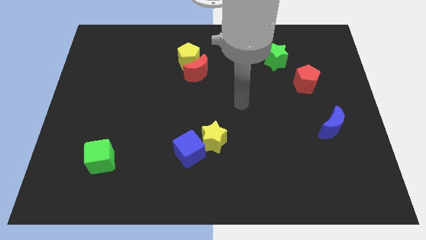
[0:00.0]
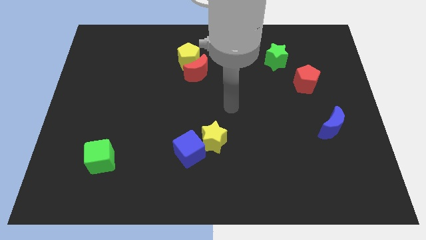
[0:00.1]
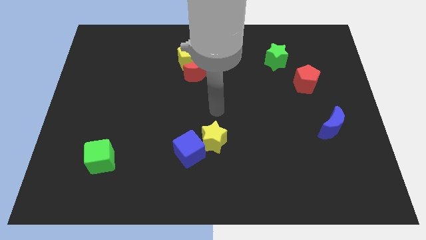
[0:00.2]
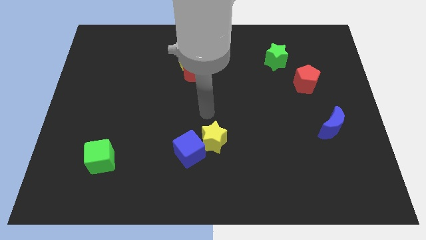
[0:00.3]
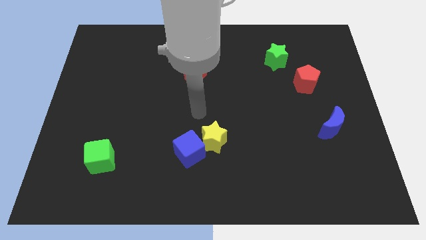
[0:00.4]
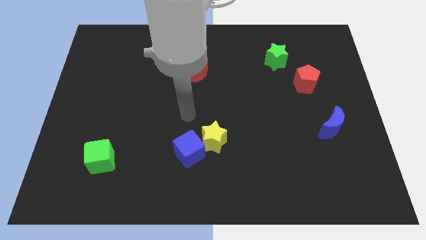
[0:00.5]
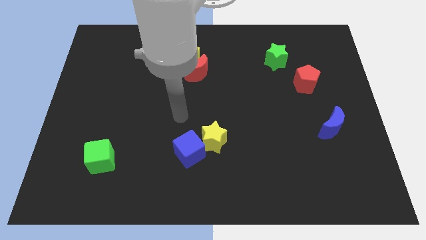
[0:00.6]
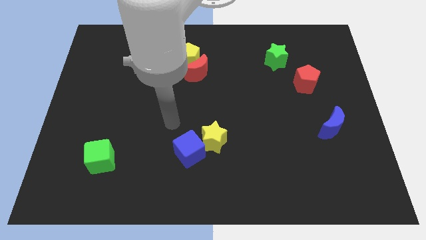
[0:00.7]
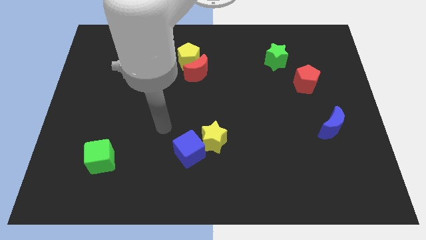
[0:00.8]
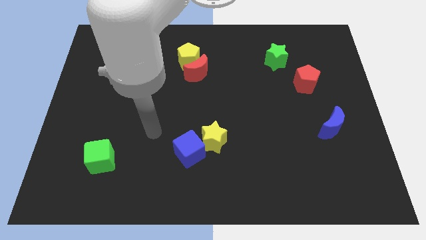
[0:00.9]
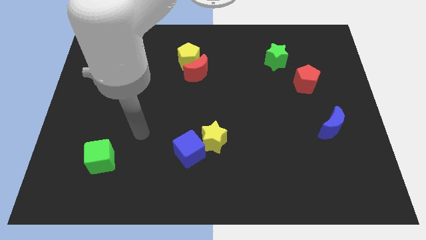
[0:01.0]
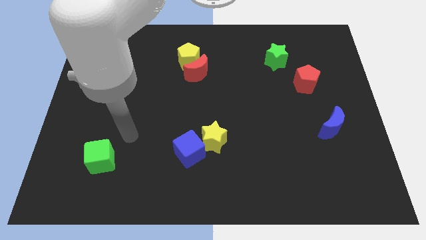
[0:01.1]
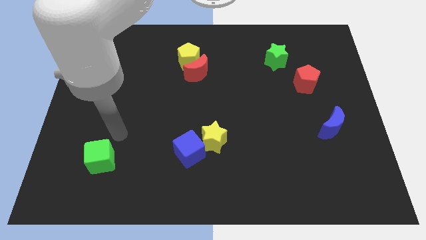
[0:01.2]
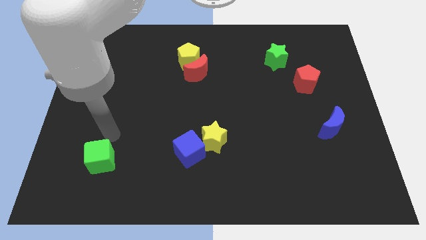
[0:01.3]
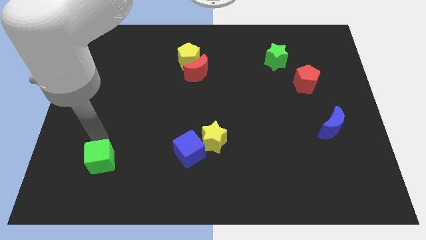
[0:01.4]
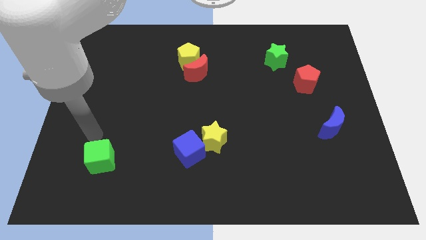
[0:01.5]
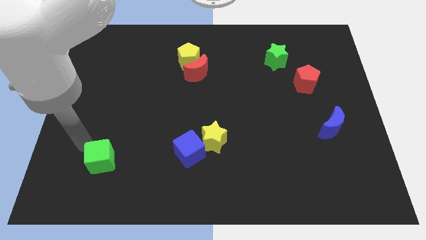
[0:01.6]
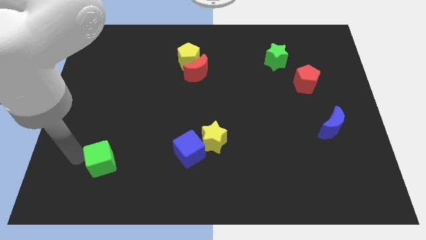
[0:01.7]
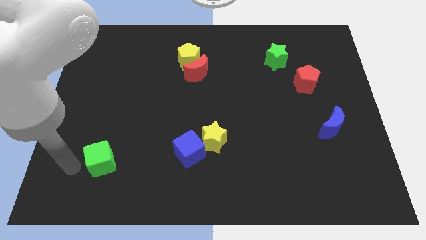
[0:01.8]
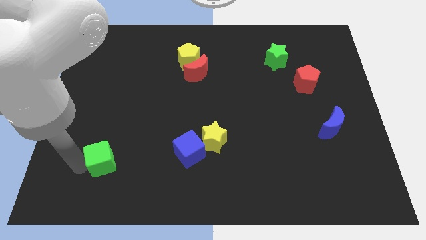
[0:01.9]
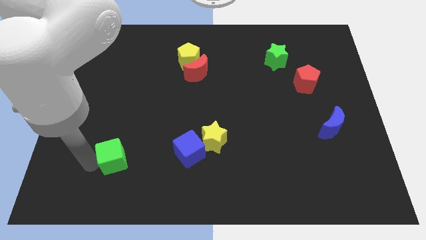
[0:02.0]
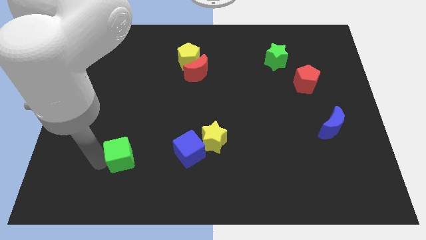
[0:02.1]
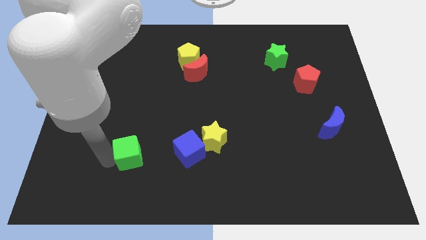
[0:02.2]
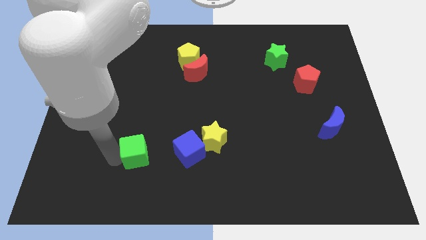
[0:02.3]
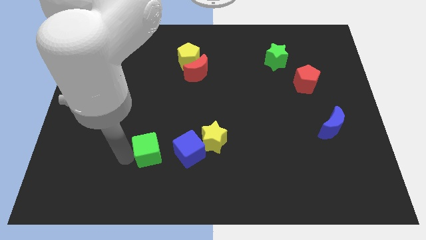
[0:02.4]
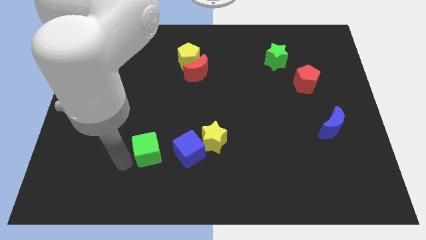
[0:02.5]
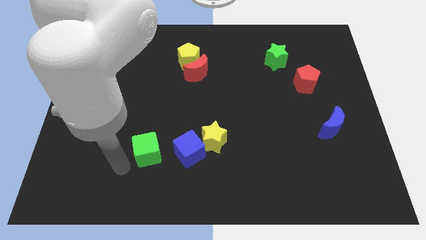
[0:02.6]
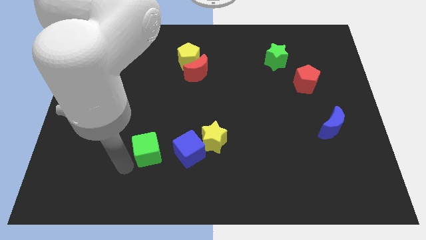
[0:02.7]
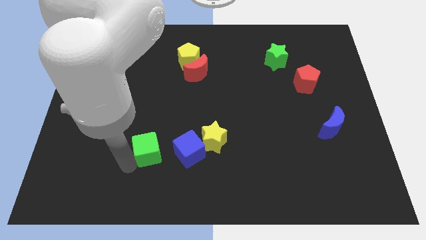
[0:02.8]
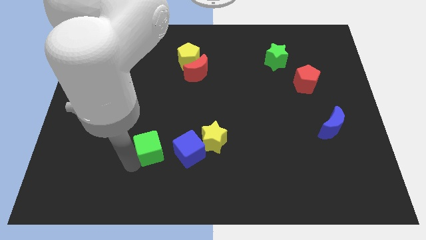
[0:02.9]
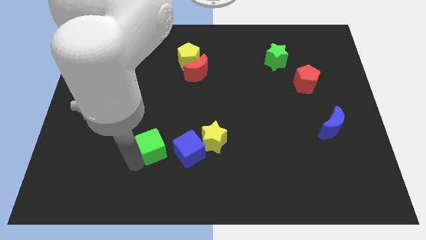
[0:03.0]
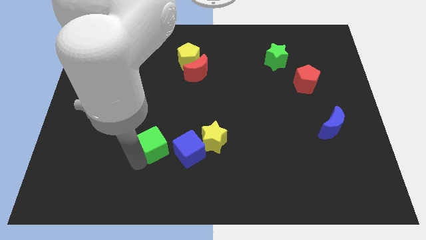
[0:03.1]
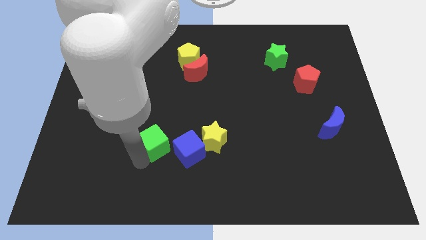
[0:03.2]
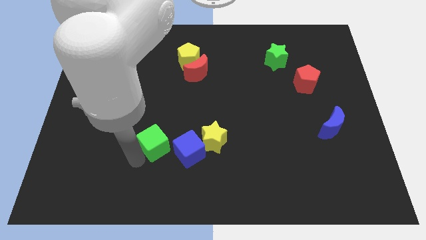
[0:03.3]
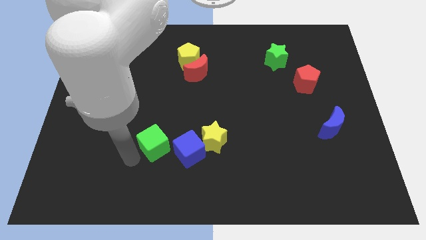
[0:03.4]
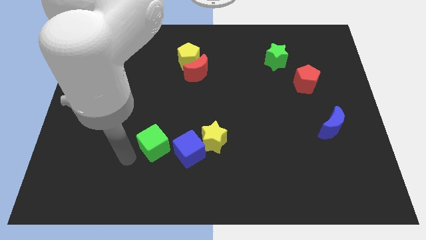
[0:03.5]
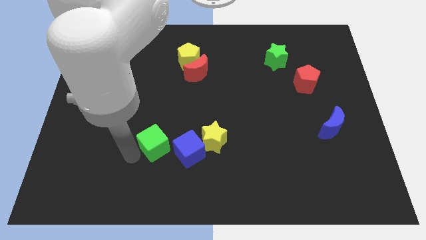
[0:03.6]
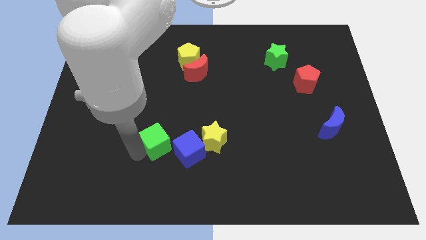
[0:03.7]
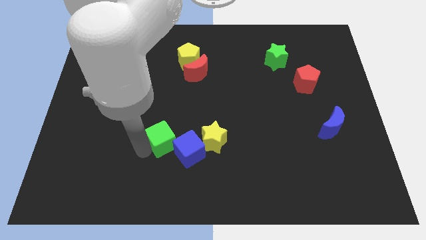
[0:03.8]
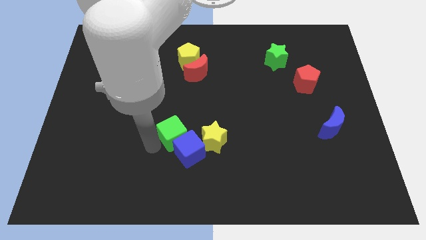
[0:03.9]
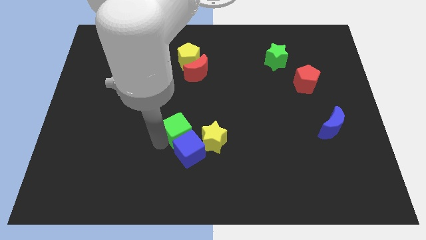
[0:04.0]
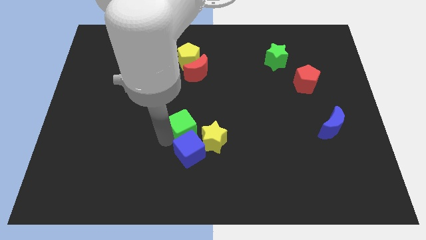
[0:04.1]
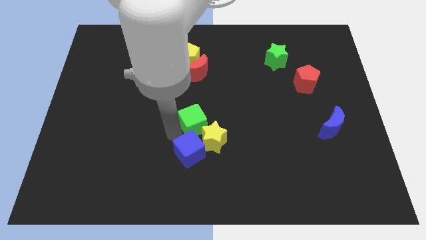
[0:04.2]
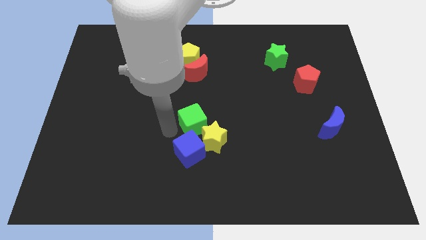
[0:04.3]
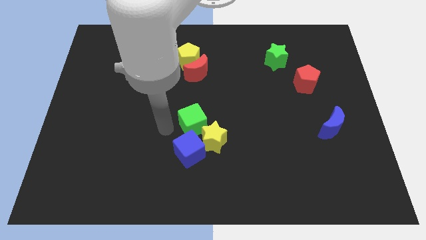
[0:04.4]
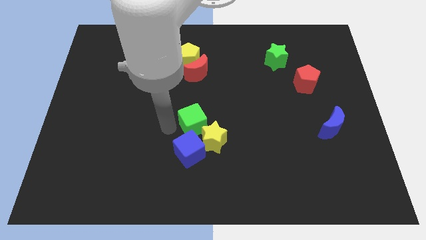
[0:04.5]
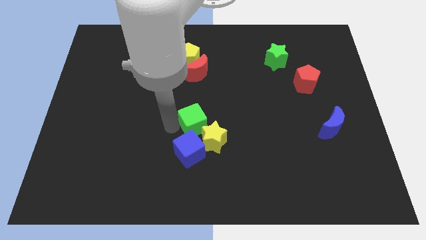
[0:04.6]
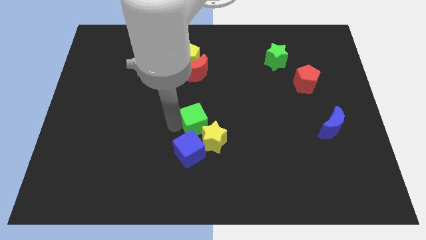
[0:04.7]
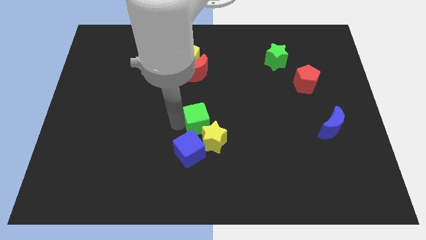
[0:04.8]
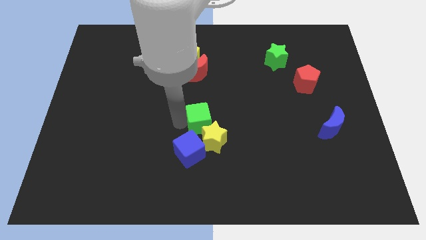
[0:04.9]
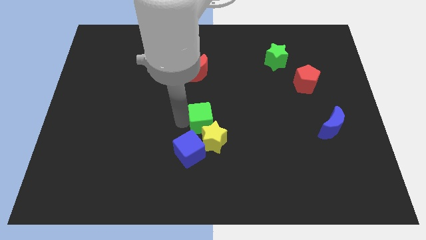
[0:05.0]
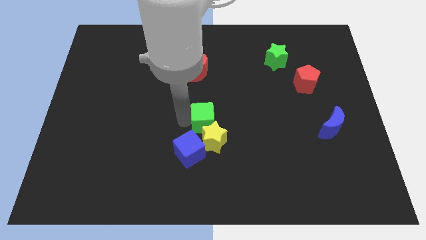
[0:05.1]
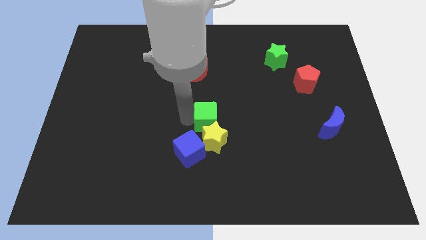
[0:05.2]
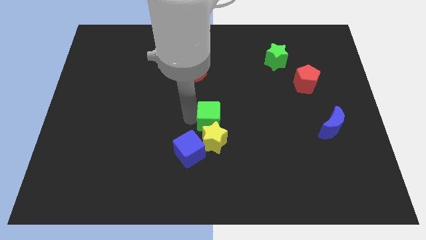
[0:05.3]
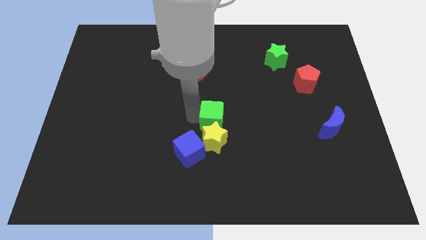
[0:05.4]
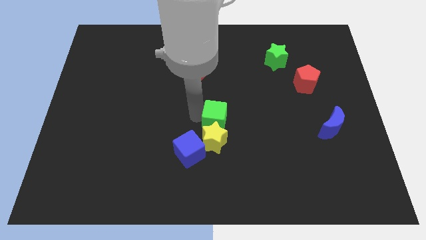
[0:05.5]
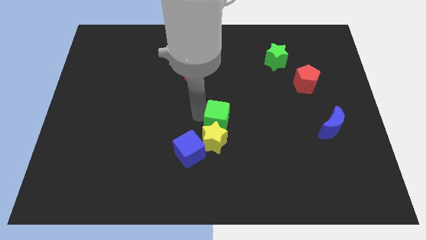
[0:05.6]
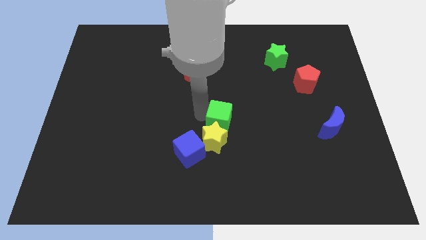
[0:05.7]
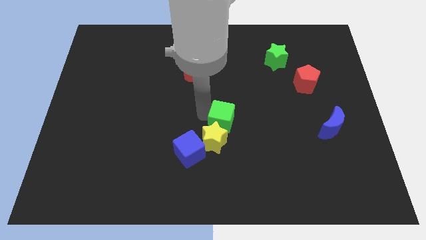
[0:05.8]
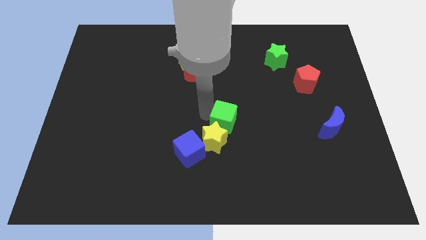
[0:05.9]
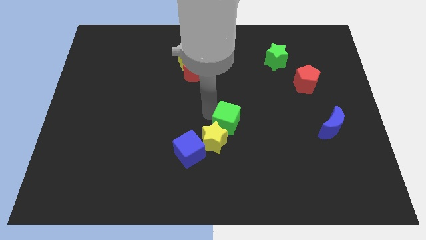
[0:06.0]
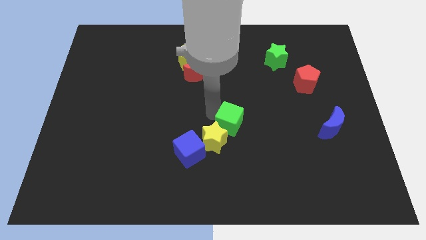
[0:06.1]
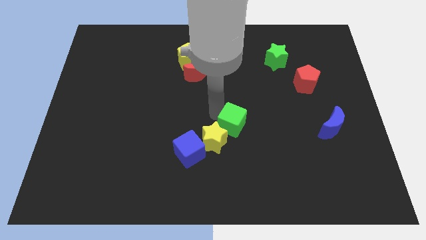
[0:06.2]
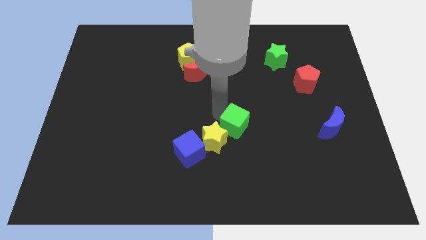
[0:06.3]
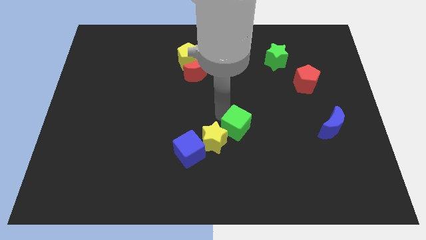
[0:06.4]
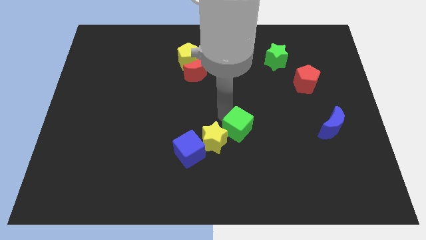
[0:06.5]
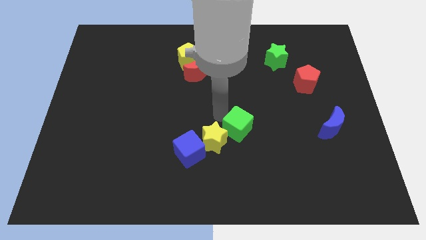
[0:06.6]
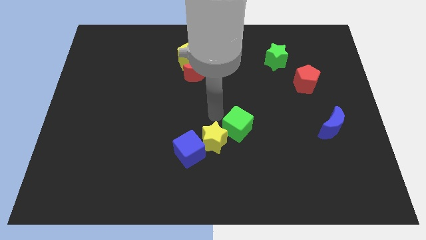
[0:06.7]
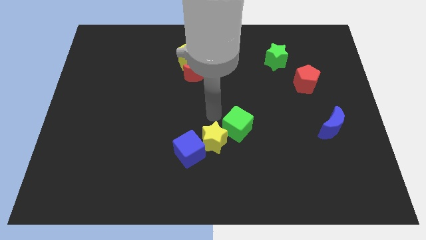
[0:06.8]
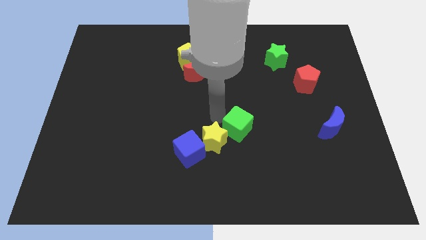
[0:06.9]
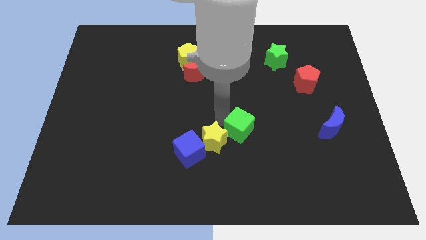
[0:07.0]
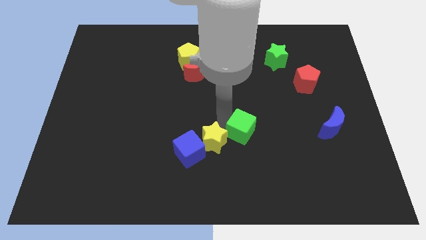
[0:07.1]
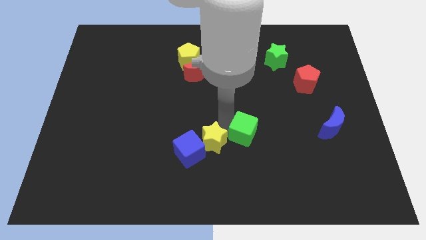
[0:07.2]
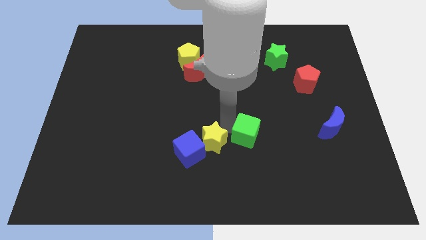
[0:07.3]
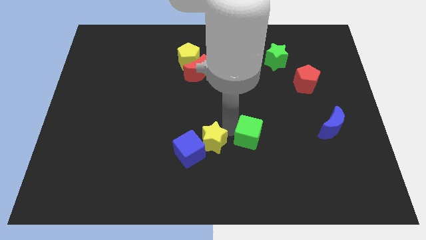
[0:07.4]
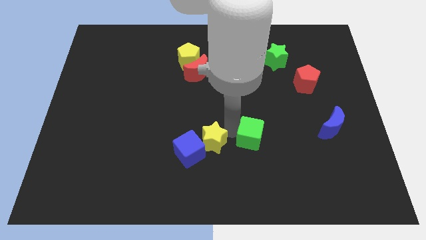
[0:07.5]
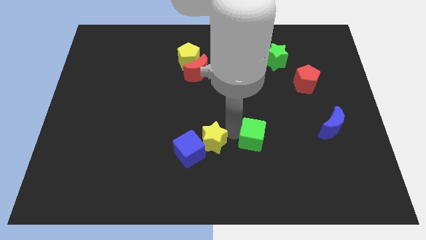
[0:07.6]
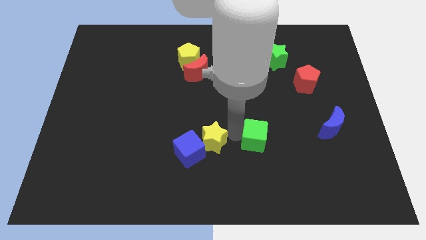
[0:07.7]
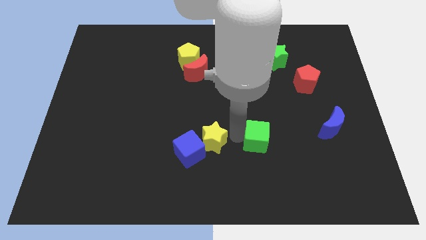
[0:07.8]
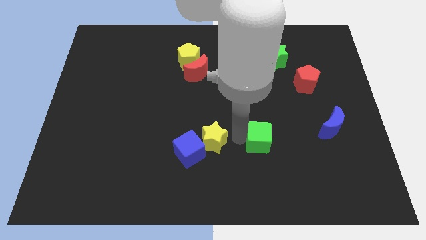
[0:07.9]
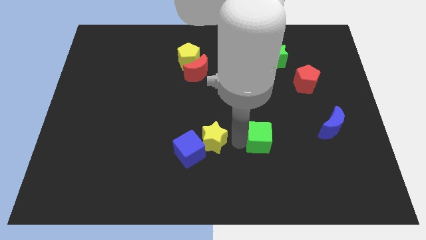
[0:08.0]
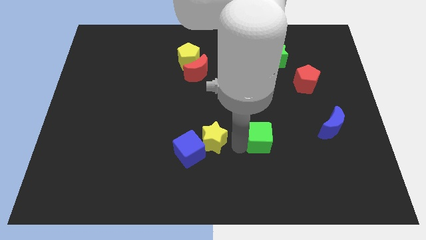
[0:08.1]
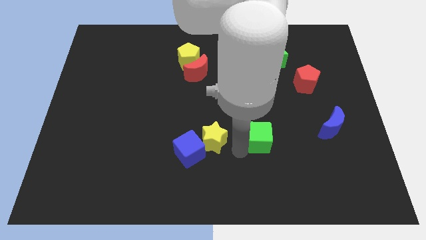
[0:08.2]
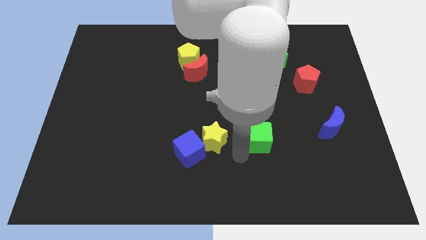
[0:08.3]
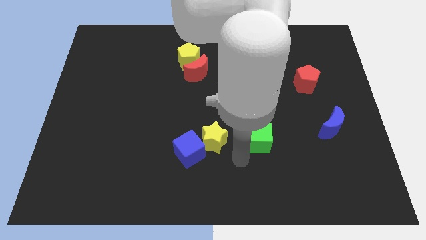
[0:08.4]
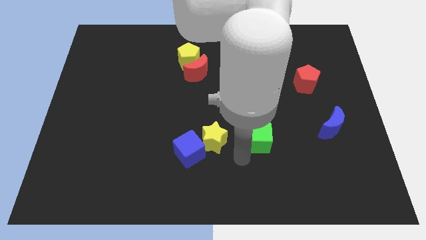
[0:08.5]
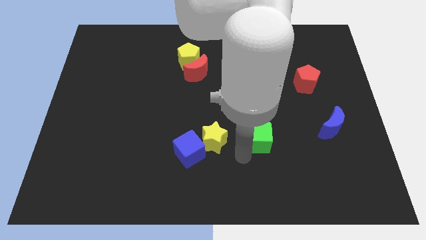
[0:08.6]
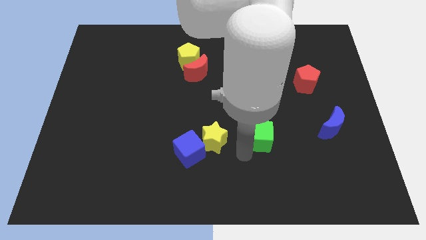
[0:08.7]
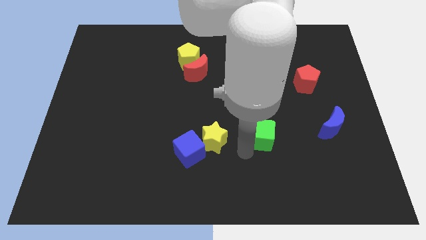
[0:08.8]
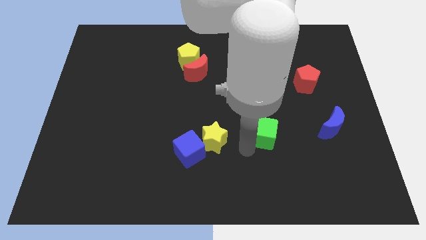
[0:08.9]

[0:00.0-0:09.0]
slide the green cube just left of the blue moon
